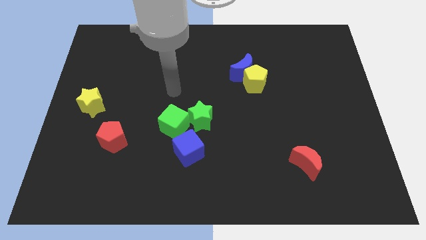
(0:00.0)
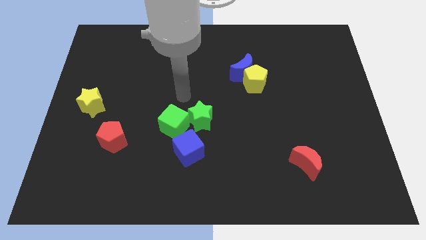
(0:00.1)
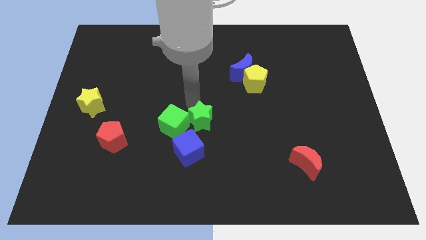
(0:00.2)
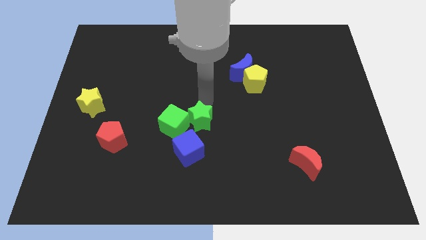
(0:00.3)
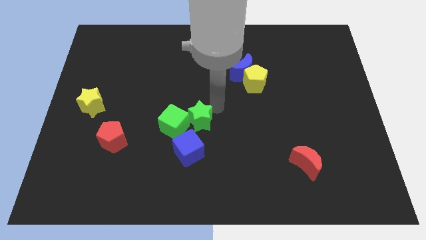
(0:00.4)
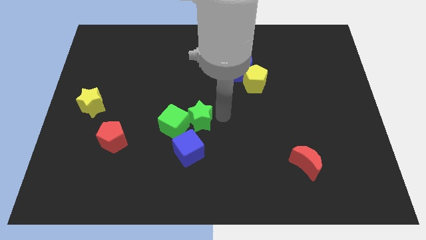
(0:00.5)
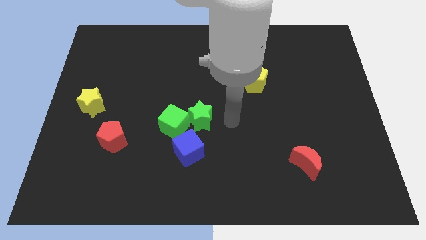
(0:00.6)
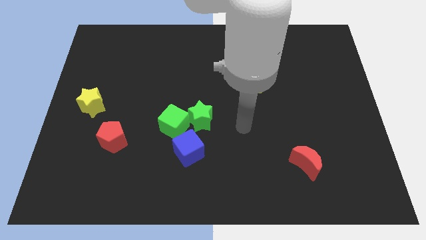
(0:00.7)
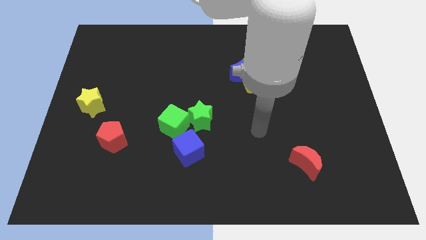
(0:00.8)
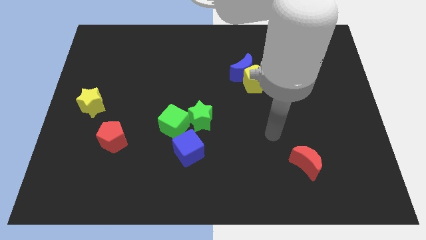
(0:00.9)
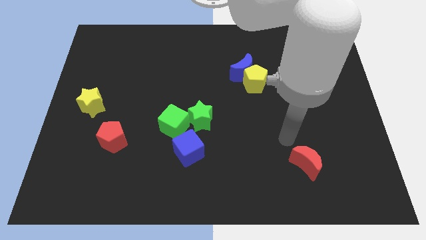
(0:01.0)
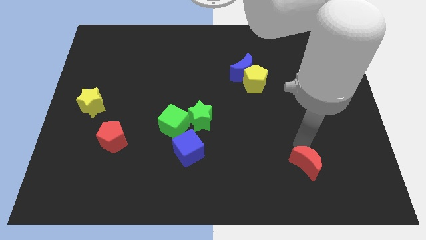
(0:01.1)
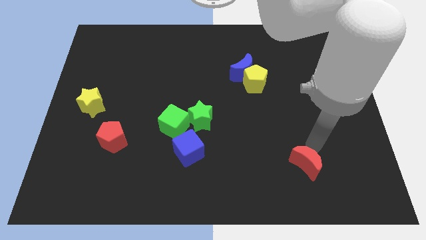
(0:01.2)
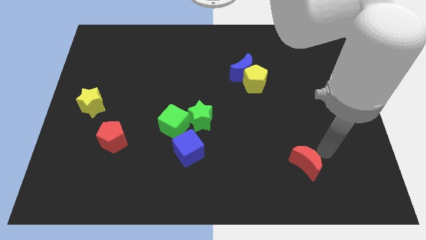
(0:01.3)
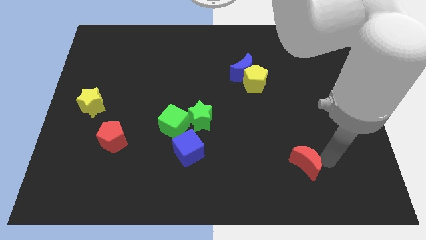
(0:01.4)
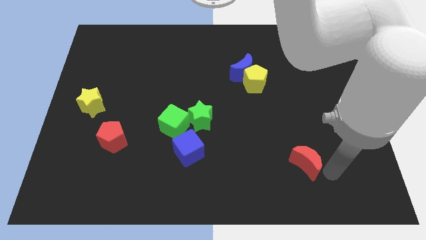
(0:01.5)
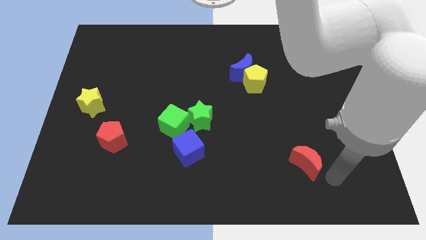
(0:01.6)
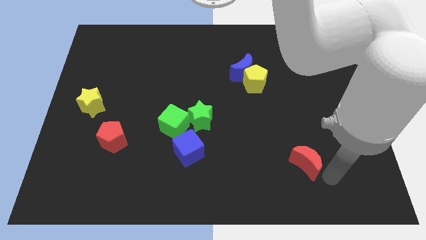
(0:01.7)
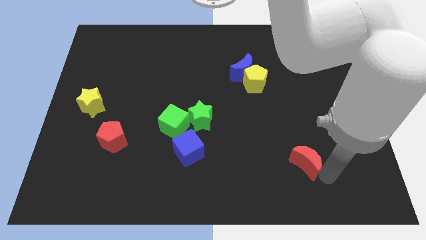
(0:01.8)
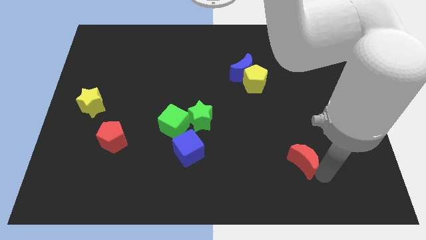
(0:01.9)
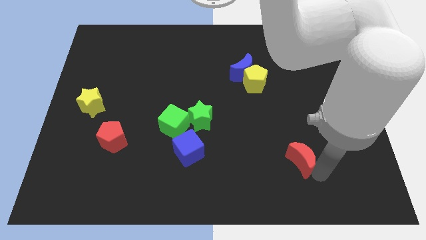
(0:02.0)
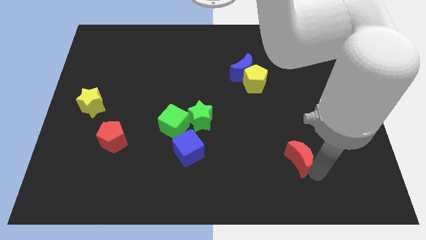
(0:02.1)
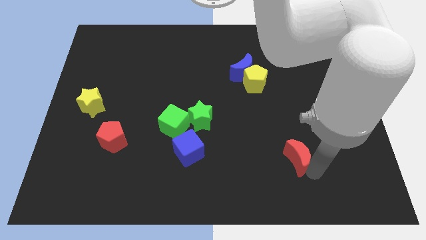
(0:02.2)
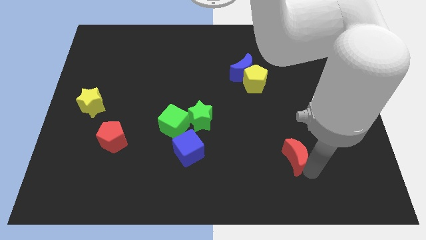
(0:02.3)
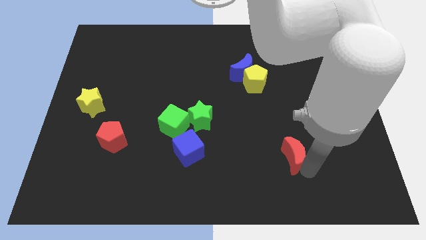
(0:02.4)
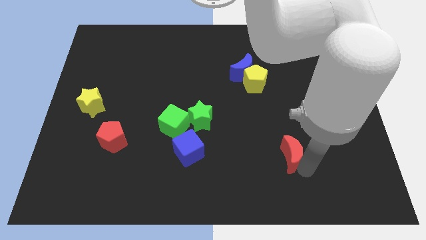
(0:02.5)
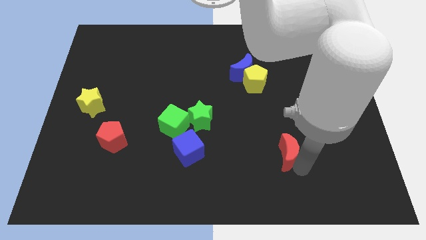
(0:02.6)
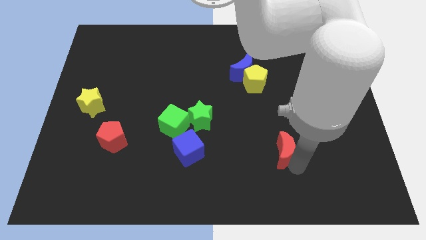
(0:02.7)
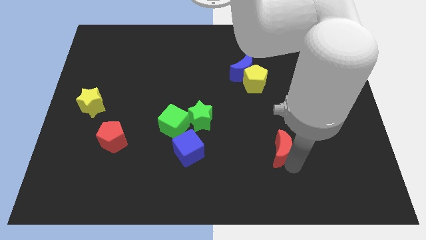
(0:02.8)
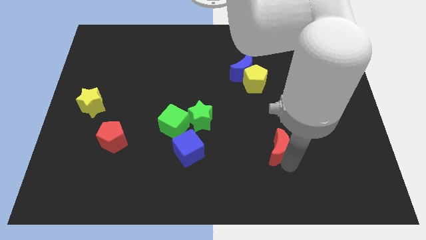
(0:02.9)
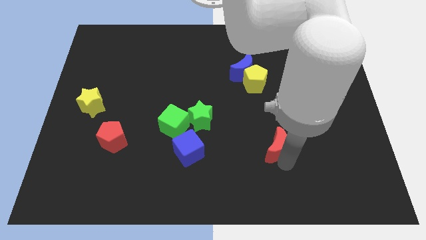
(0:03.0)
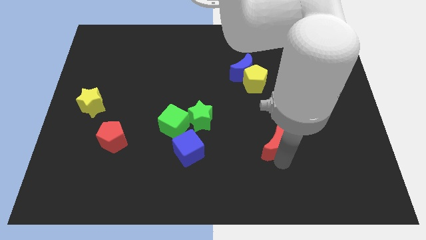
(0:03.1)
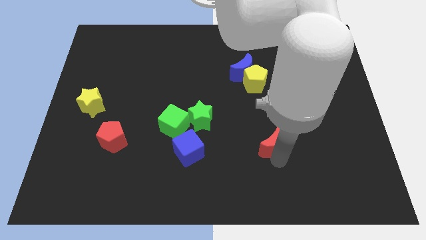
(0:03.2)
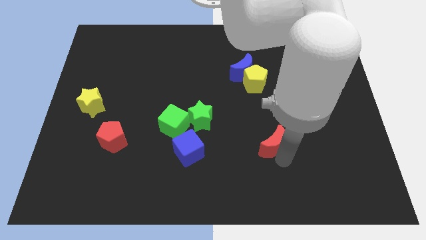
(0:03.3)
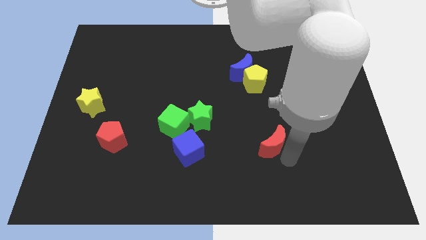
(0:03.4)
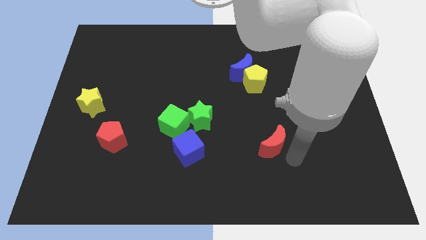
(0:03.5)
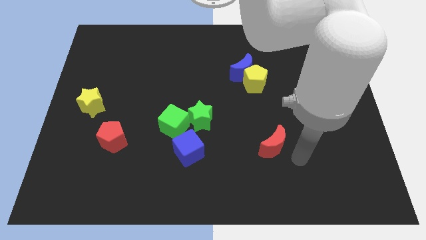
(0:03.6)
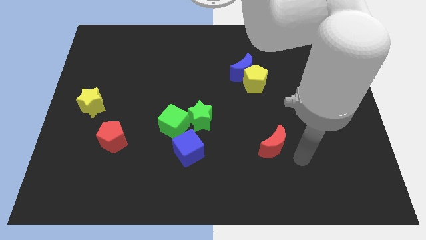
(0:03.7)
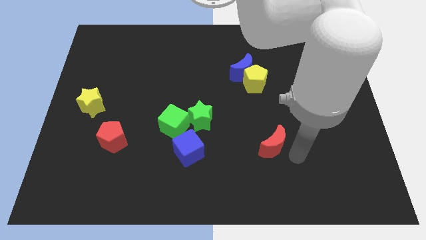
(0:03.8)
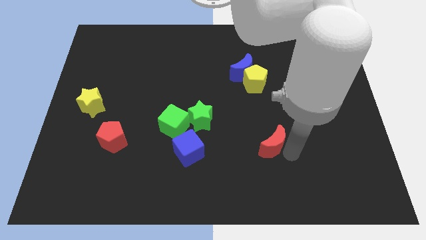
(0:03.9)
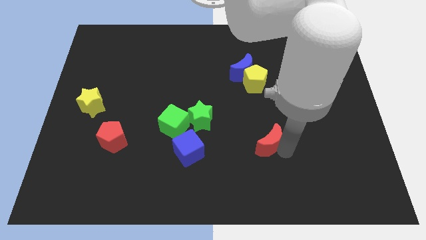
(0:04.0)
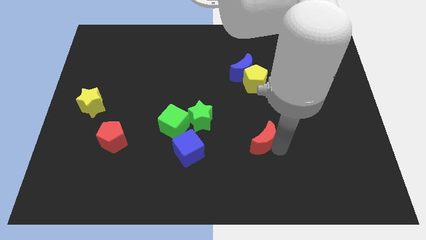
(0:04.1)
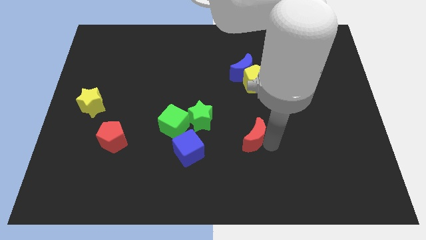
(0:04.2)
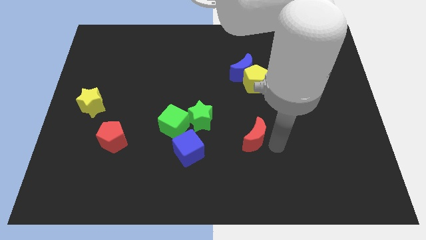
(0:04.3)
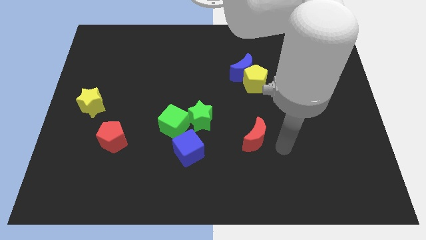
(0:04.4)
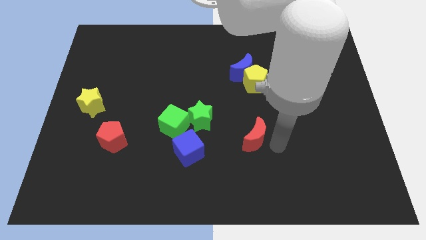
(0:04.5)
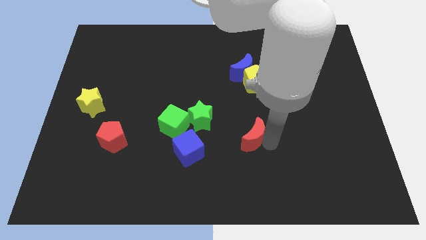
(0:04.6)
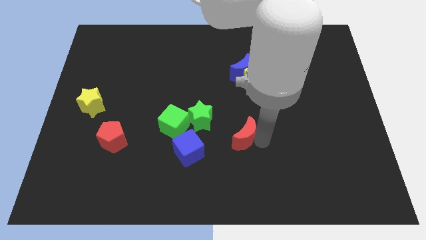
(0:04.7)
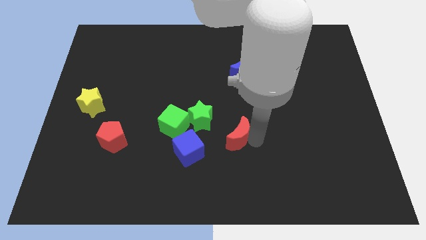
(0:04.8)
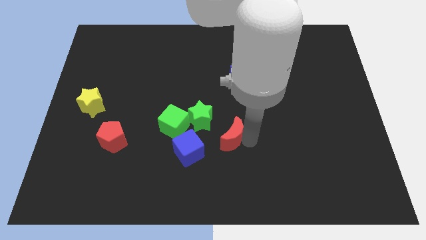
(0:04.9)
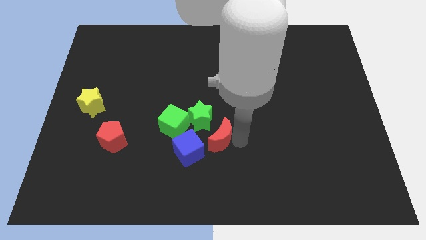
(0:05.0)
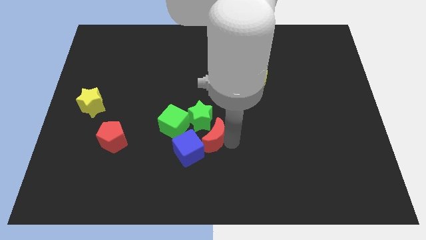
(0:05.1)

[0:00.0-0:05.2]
push the red moon close to the green star

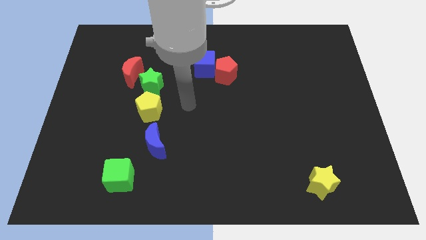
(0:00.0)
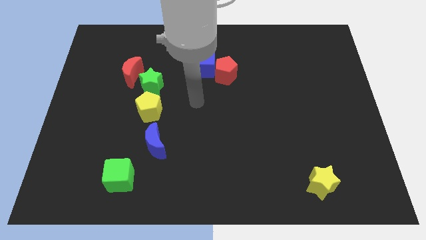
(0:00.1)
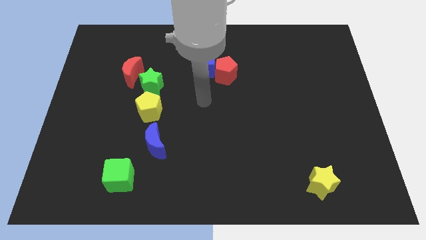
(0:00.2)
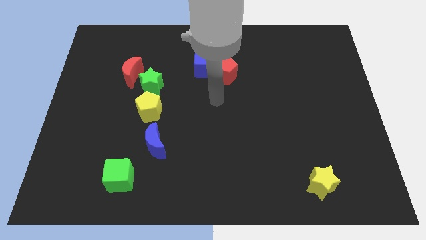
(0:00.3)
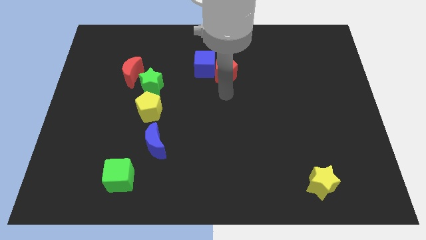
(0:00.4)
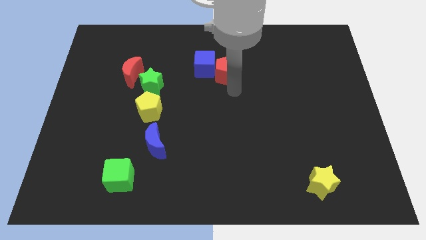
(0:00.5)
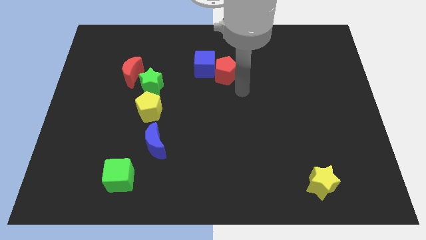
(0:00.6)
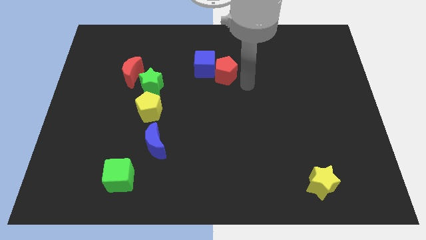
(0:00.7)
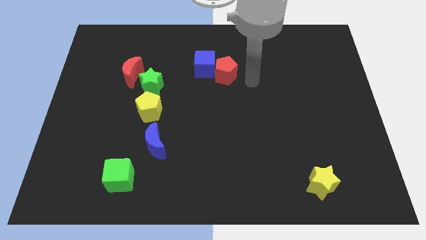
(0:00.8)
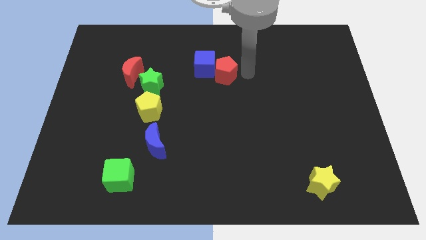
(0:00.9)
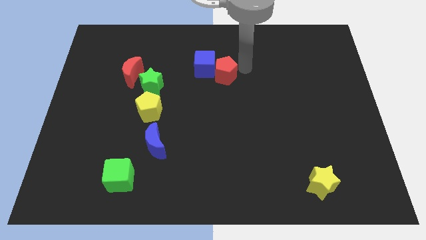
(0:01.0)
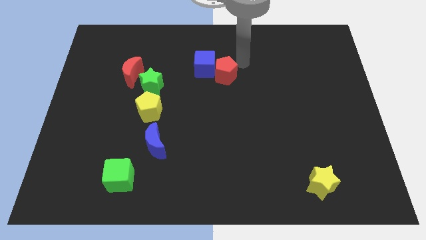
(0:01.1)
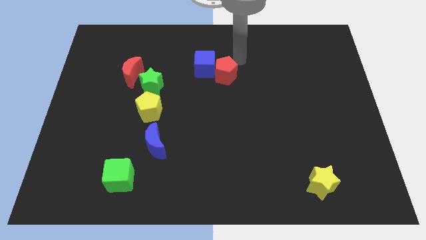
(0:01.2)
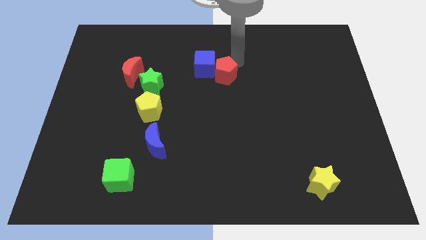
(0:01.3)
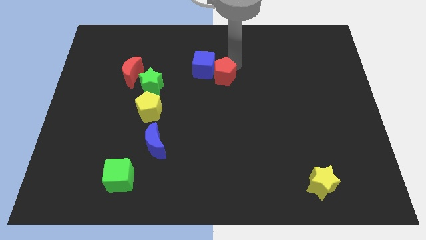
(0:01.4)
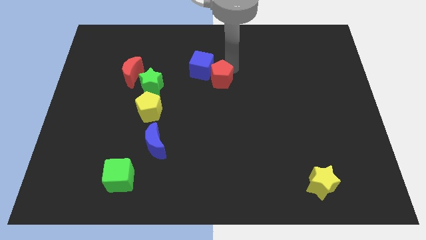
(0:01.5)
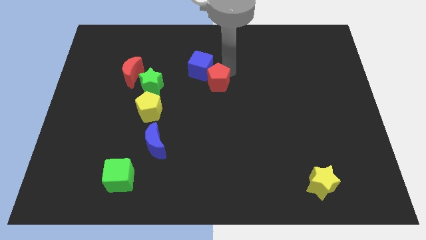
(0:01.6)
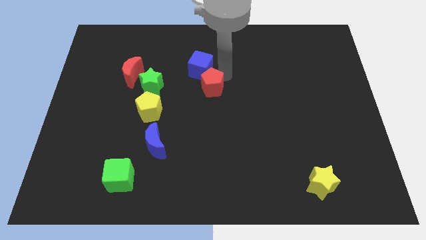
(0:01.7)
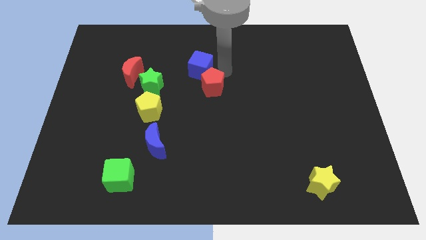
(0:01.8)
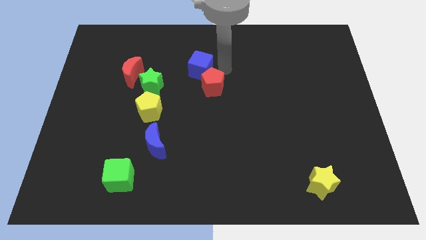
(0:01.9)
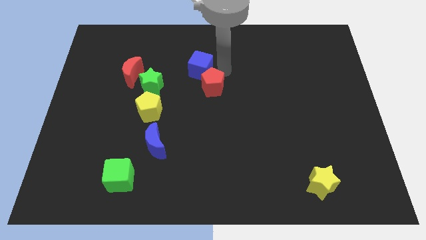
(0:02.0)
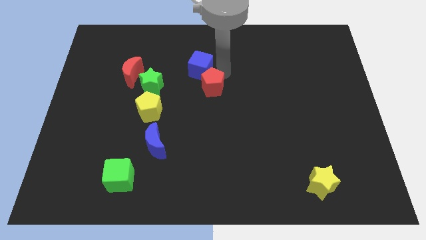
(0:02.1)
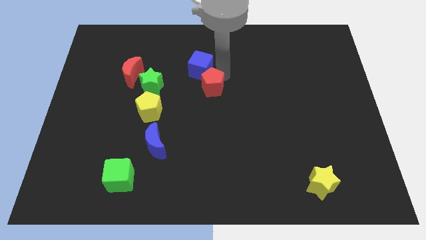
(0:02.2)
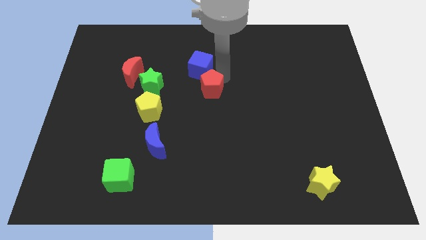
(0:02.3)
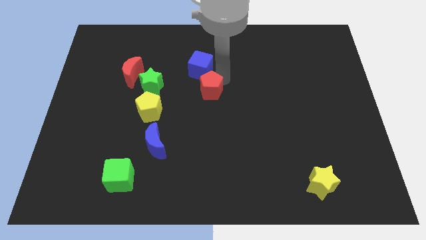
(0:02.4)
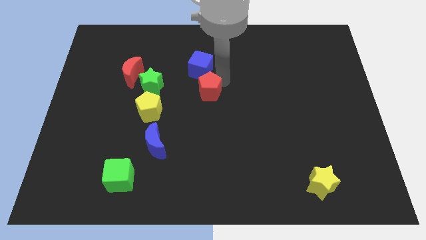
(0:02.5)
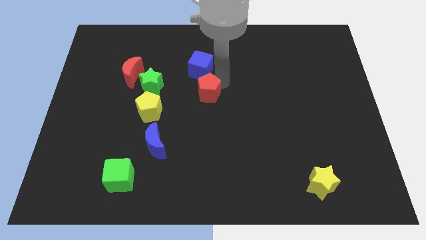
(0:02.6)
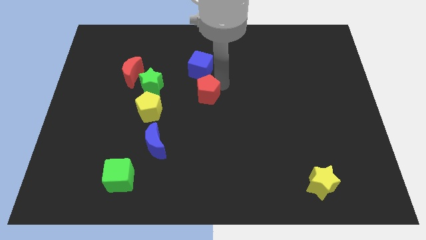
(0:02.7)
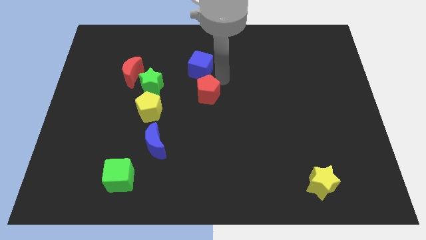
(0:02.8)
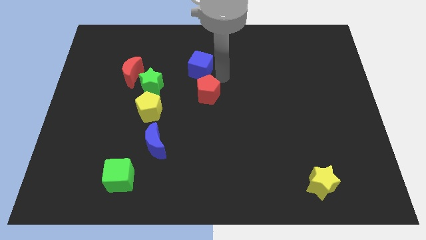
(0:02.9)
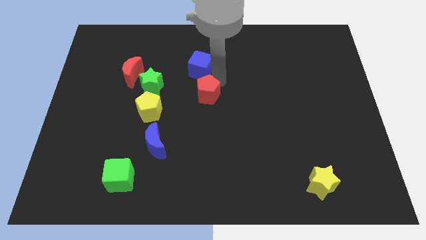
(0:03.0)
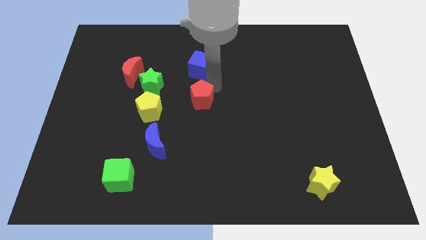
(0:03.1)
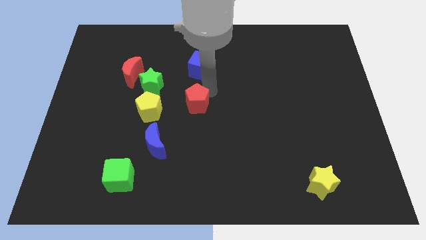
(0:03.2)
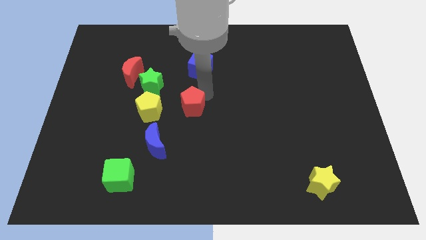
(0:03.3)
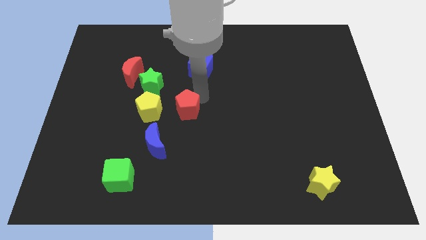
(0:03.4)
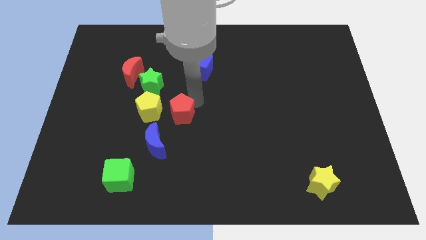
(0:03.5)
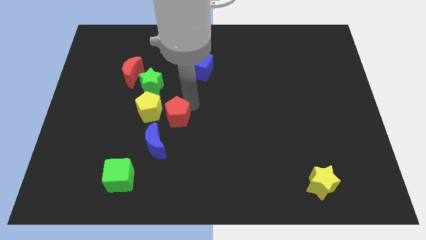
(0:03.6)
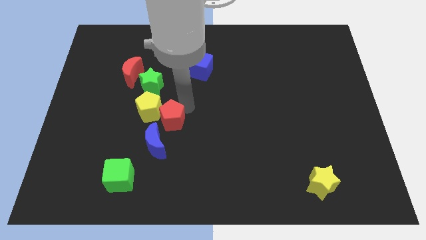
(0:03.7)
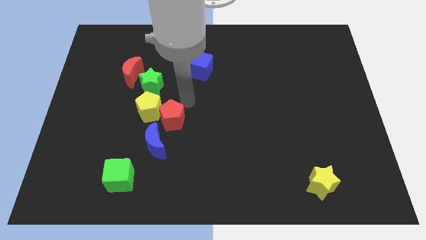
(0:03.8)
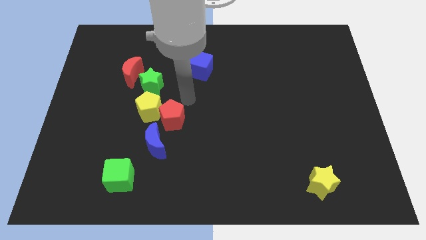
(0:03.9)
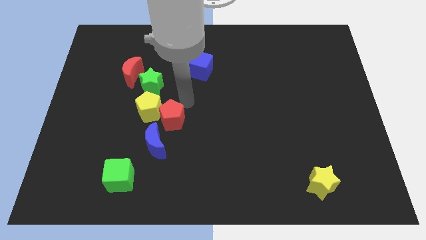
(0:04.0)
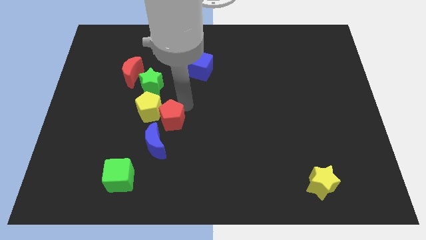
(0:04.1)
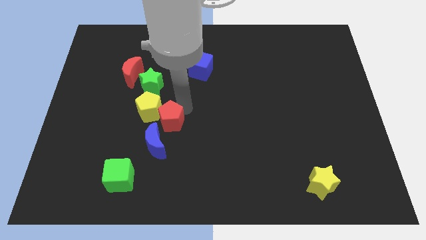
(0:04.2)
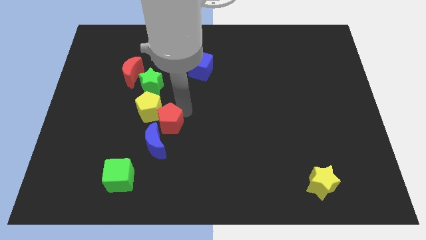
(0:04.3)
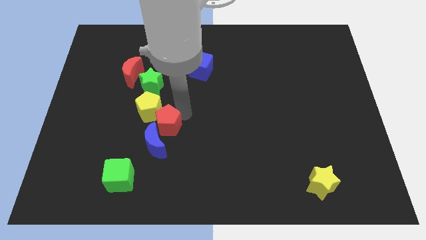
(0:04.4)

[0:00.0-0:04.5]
push the red pentagon next to the blue moon
